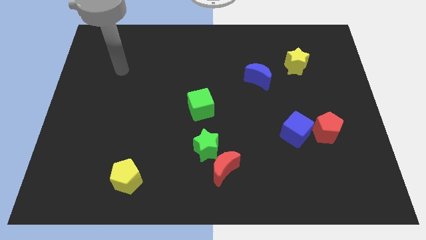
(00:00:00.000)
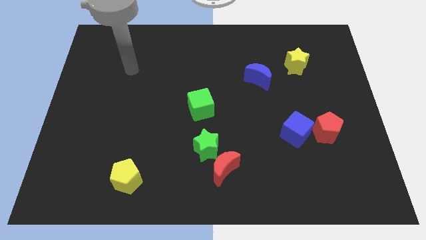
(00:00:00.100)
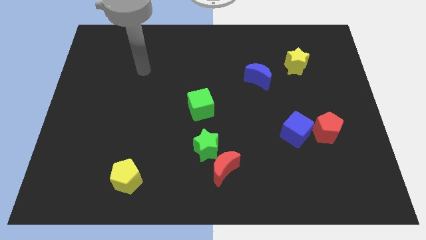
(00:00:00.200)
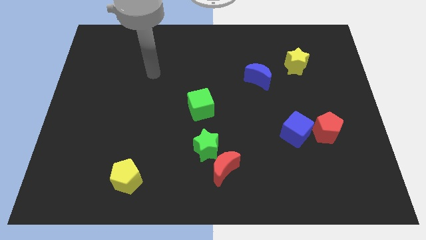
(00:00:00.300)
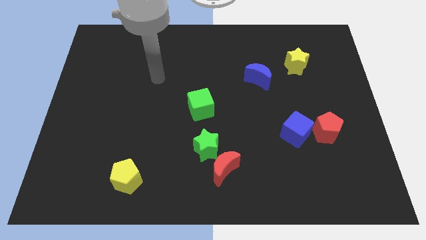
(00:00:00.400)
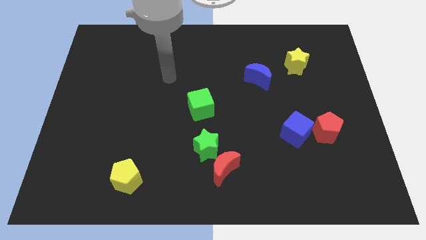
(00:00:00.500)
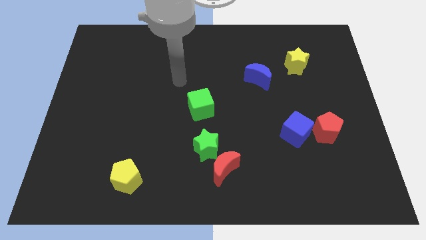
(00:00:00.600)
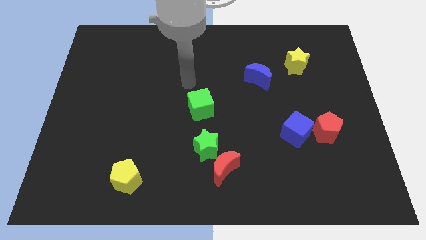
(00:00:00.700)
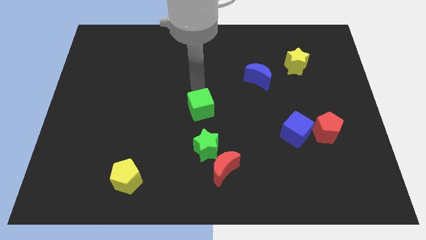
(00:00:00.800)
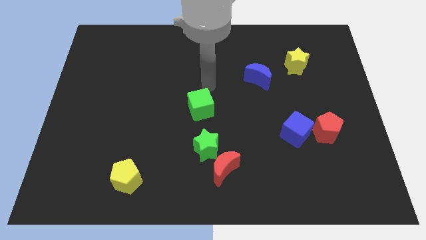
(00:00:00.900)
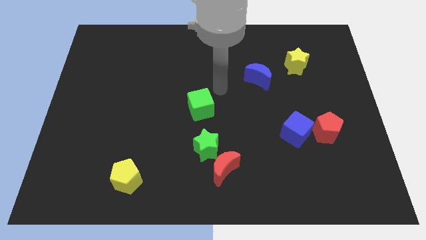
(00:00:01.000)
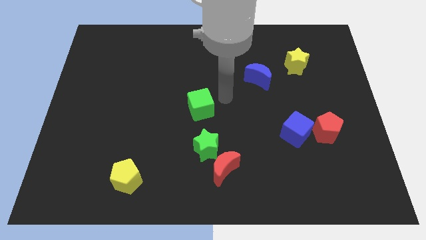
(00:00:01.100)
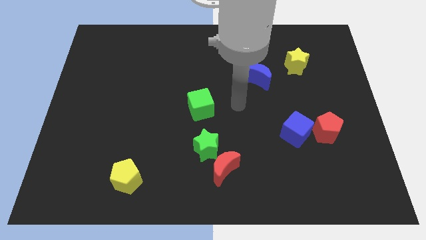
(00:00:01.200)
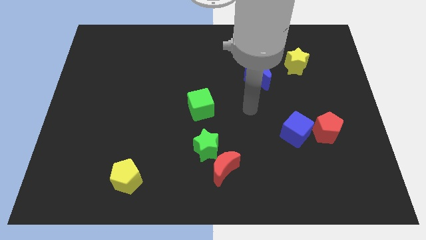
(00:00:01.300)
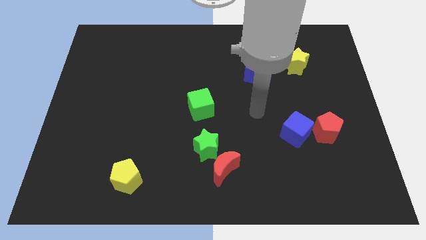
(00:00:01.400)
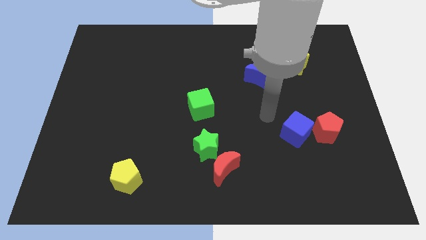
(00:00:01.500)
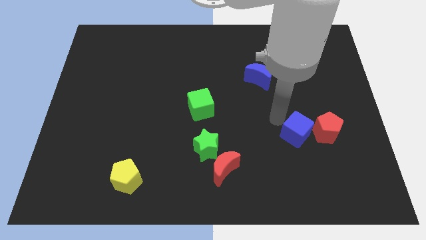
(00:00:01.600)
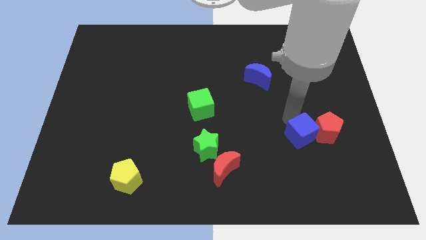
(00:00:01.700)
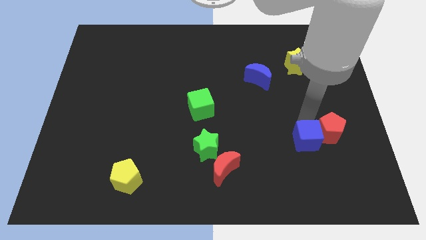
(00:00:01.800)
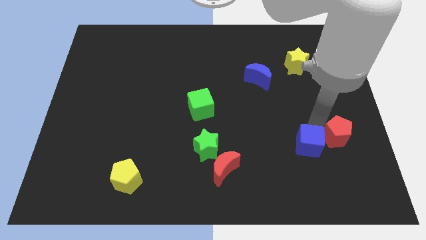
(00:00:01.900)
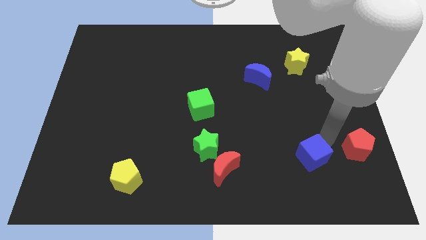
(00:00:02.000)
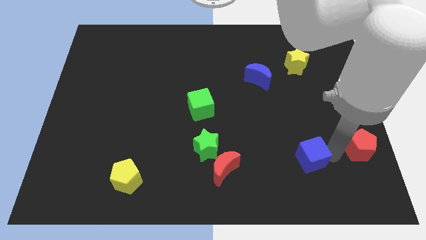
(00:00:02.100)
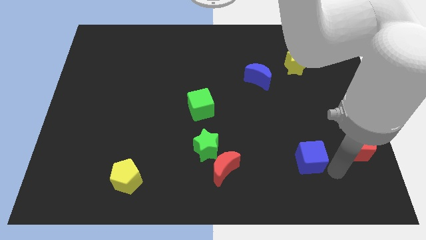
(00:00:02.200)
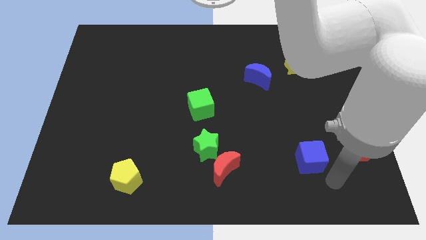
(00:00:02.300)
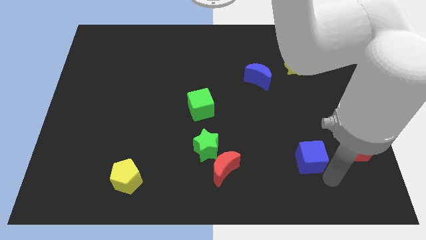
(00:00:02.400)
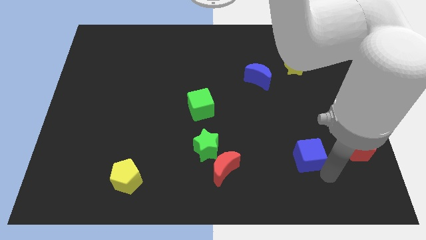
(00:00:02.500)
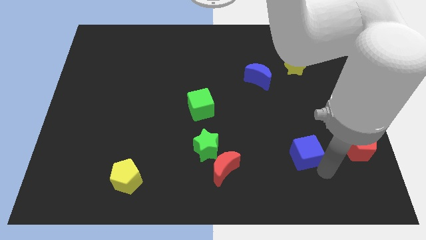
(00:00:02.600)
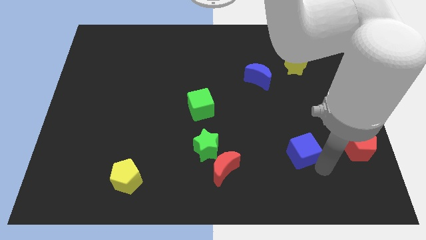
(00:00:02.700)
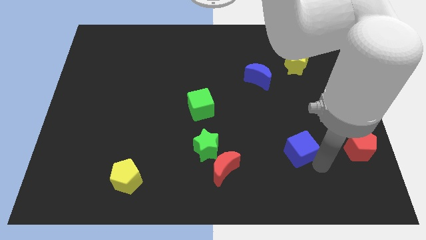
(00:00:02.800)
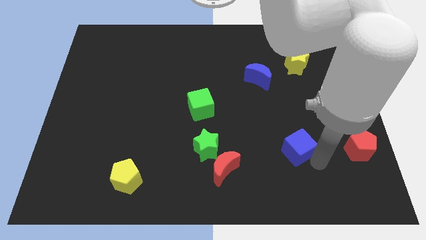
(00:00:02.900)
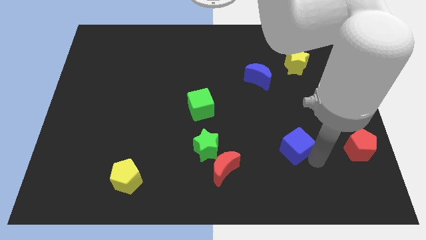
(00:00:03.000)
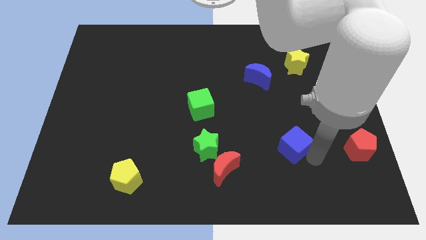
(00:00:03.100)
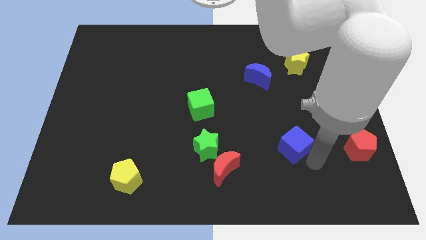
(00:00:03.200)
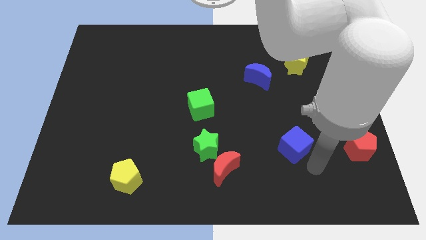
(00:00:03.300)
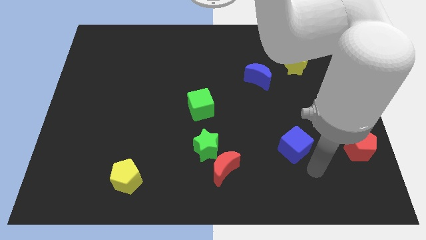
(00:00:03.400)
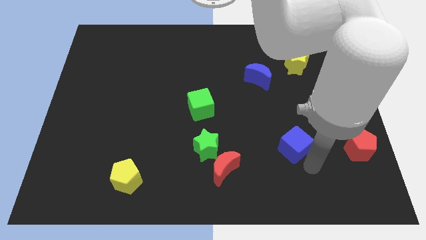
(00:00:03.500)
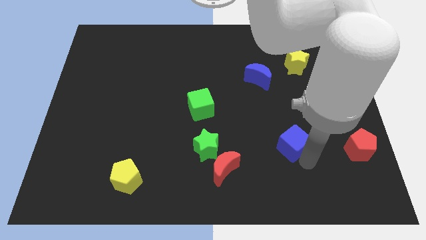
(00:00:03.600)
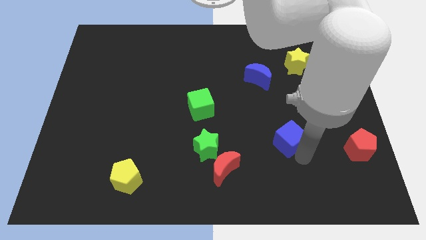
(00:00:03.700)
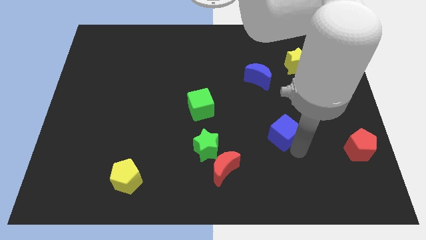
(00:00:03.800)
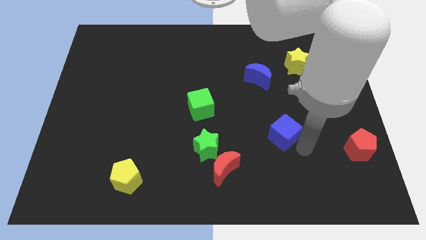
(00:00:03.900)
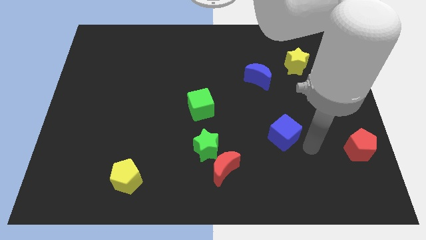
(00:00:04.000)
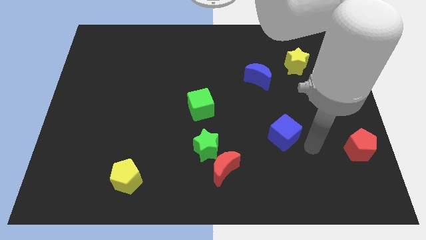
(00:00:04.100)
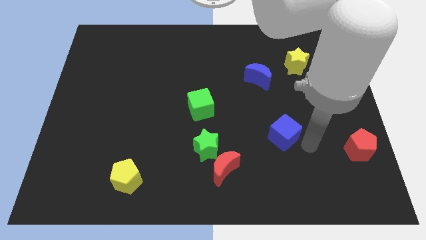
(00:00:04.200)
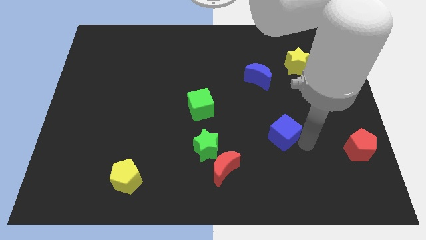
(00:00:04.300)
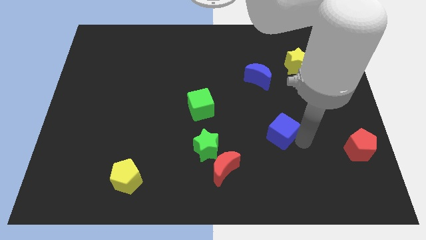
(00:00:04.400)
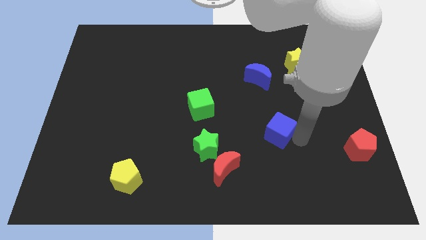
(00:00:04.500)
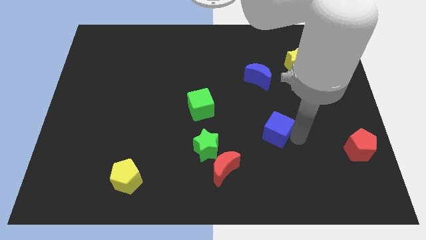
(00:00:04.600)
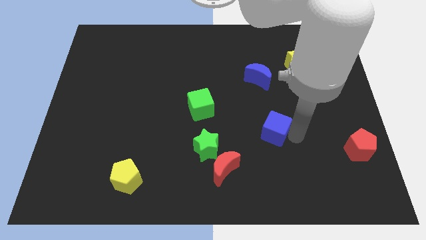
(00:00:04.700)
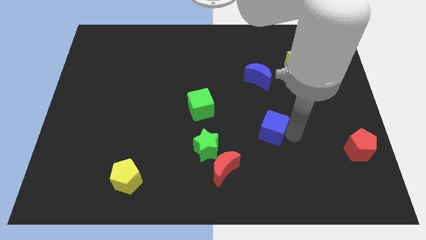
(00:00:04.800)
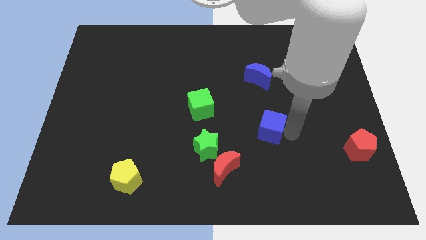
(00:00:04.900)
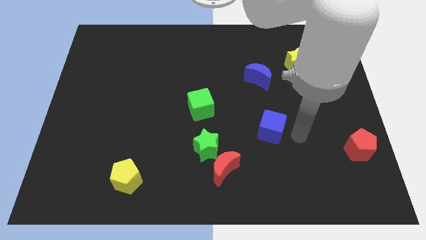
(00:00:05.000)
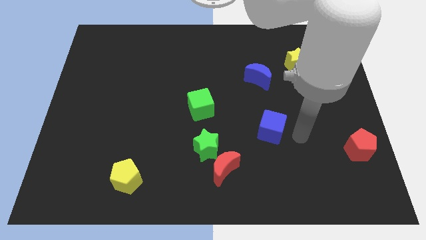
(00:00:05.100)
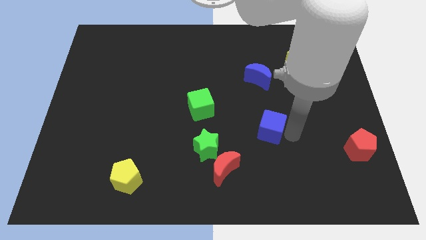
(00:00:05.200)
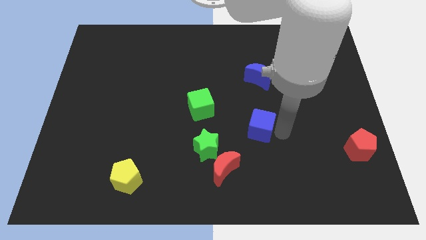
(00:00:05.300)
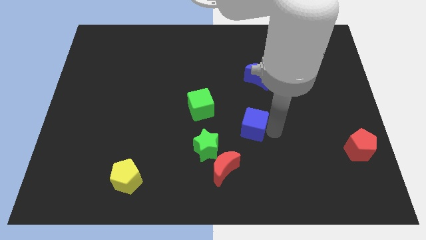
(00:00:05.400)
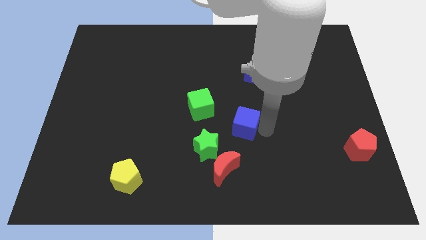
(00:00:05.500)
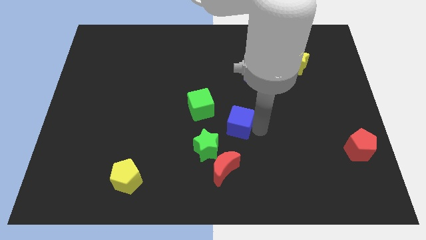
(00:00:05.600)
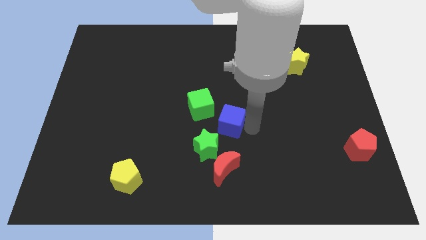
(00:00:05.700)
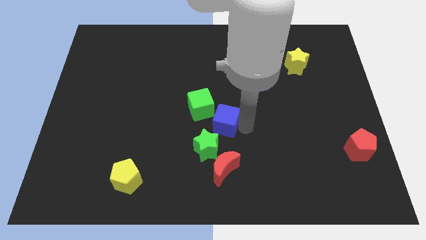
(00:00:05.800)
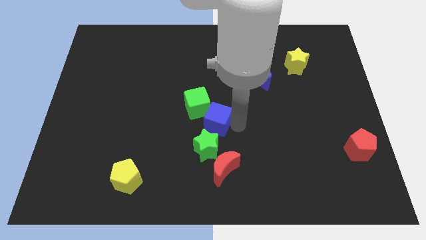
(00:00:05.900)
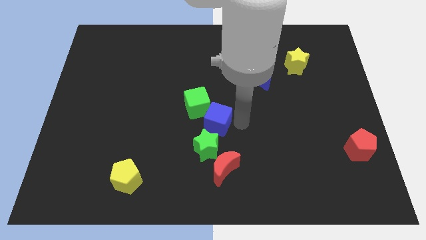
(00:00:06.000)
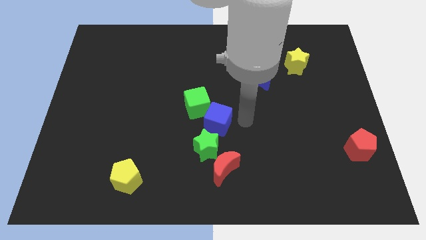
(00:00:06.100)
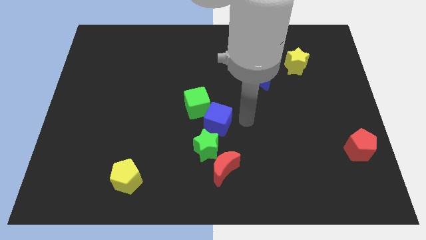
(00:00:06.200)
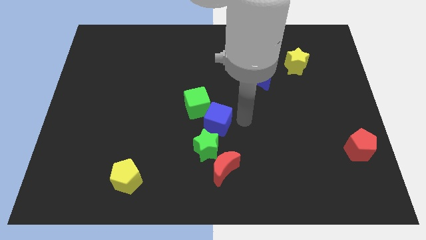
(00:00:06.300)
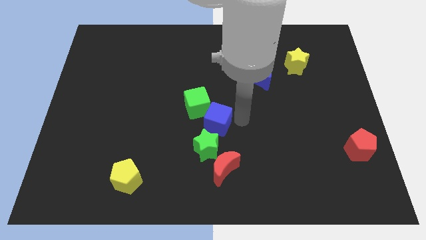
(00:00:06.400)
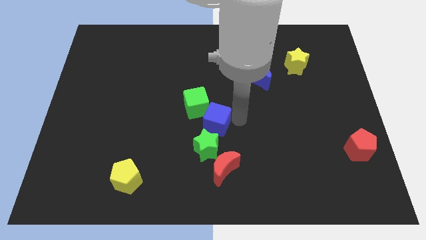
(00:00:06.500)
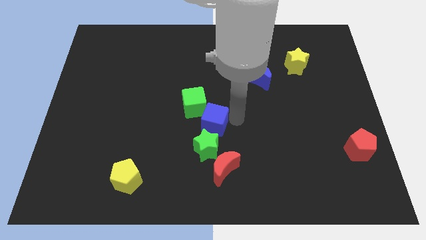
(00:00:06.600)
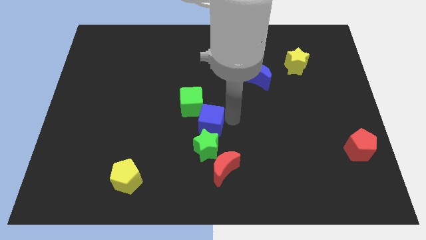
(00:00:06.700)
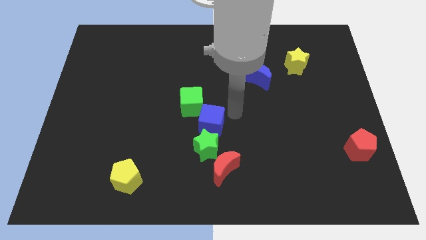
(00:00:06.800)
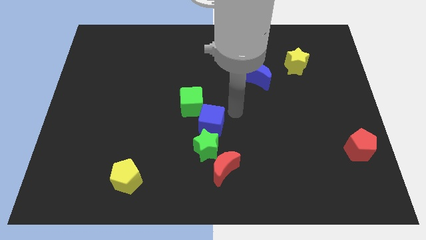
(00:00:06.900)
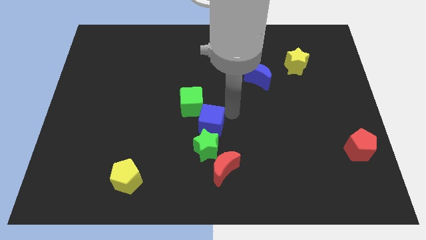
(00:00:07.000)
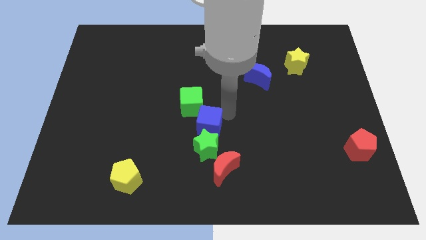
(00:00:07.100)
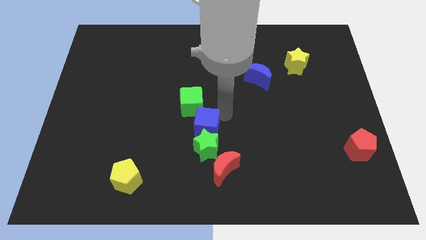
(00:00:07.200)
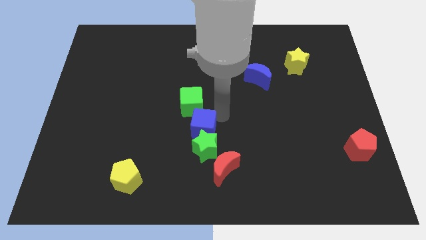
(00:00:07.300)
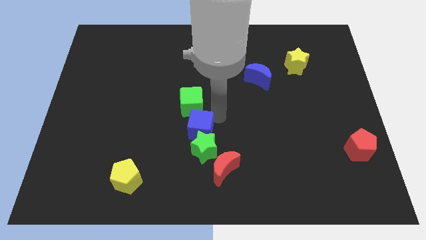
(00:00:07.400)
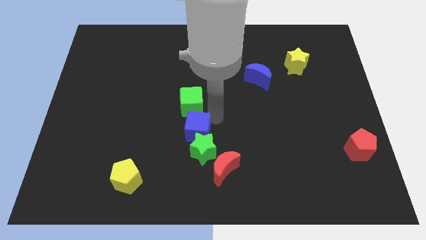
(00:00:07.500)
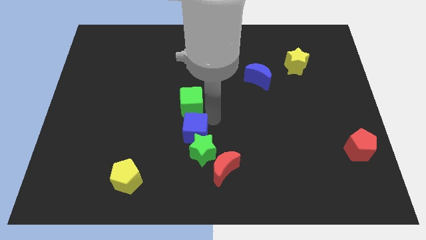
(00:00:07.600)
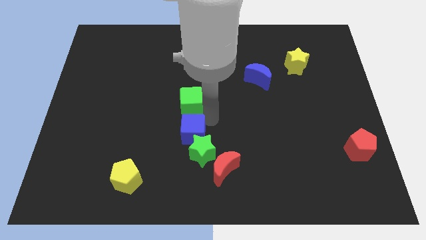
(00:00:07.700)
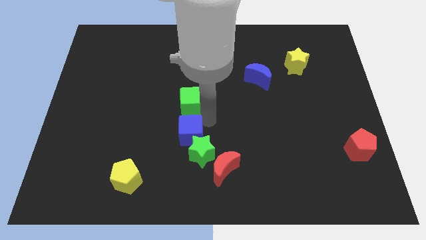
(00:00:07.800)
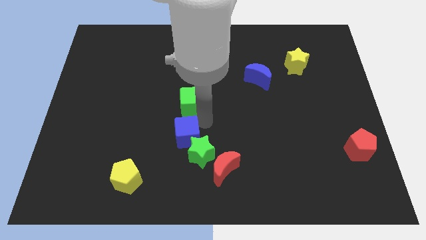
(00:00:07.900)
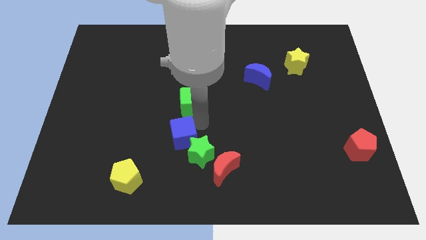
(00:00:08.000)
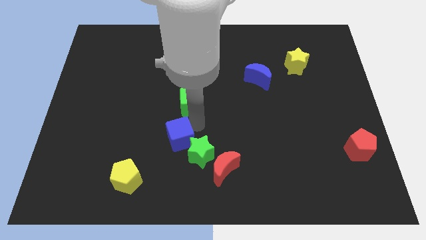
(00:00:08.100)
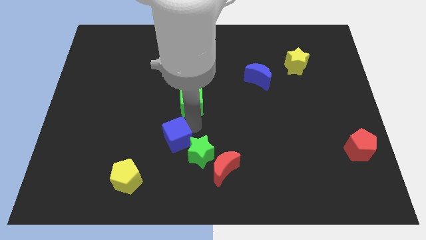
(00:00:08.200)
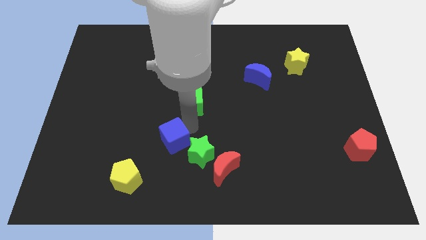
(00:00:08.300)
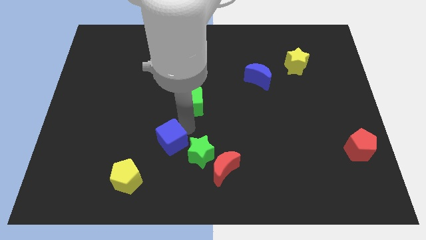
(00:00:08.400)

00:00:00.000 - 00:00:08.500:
push the blue cube to the top right side of the yellow pentagon
